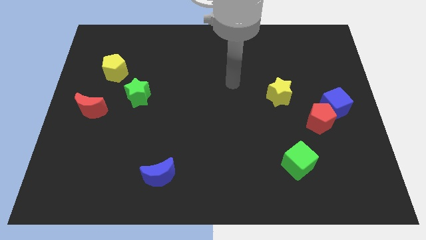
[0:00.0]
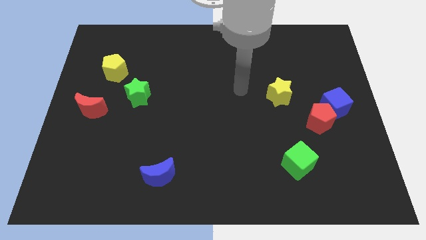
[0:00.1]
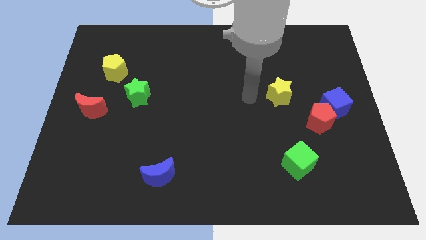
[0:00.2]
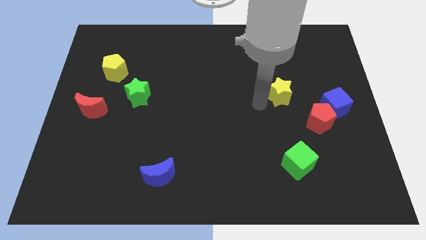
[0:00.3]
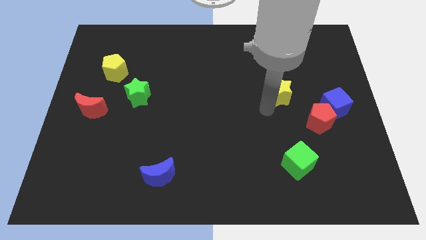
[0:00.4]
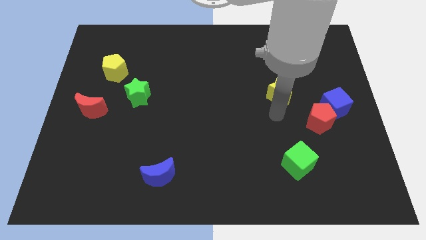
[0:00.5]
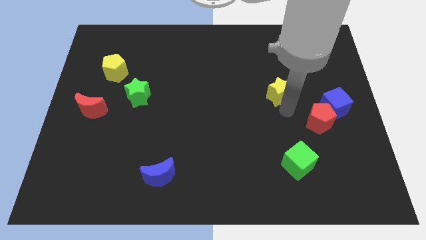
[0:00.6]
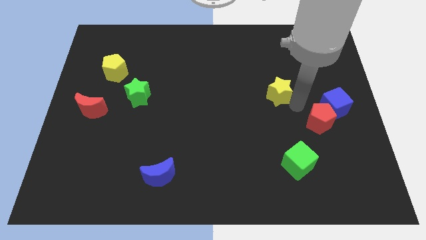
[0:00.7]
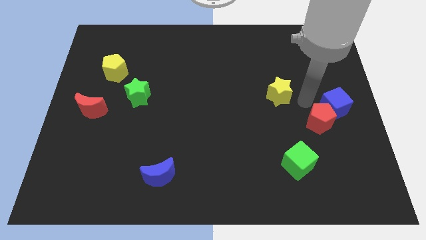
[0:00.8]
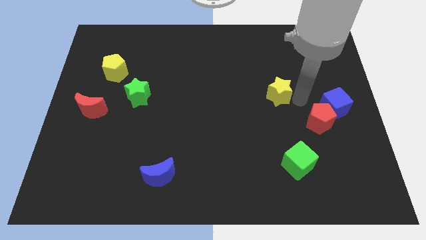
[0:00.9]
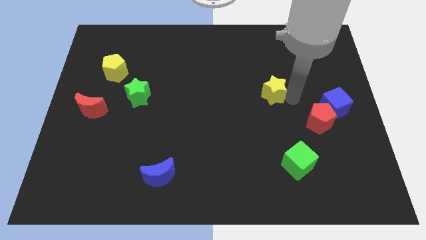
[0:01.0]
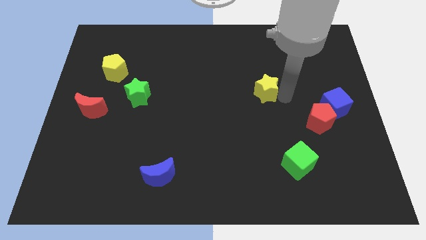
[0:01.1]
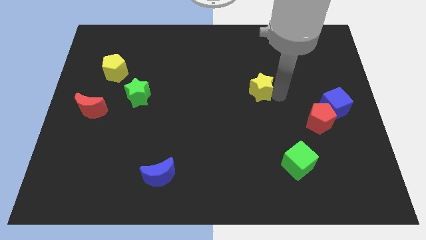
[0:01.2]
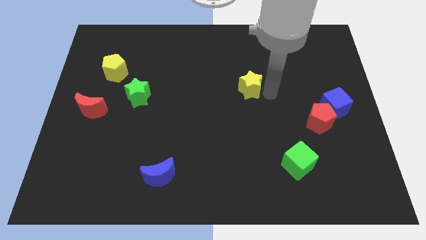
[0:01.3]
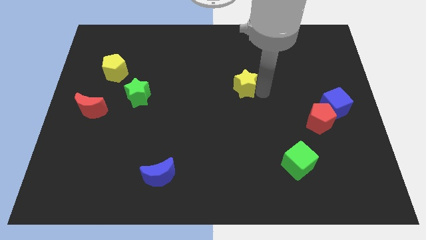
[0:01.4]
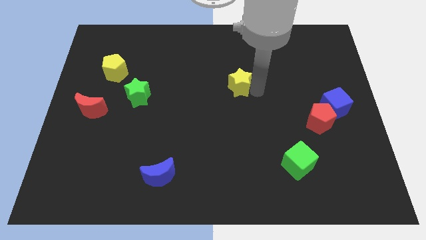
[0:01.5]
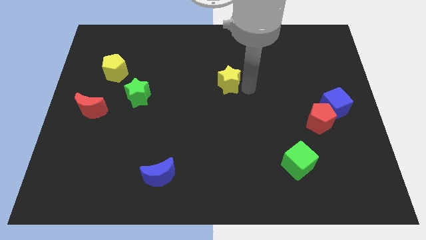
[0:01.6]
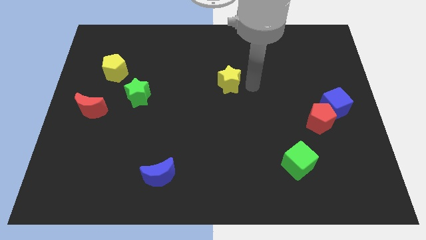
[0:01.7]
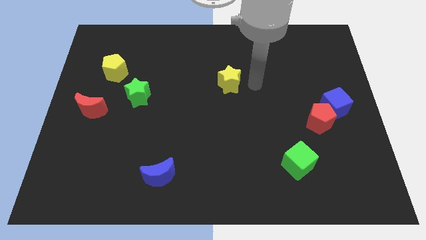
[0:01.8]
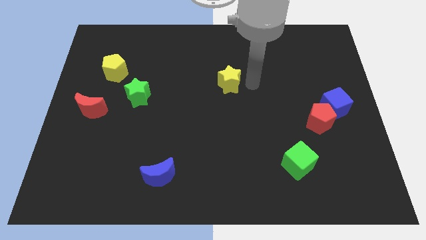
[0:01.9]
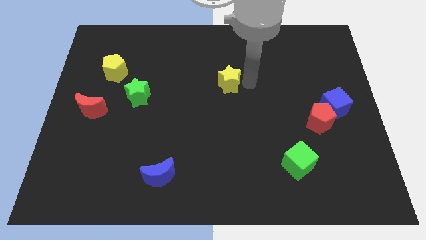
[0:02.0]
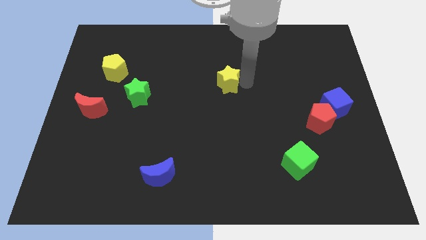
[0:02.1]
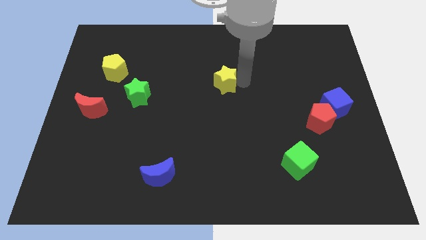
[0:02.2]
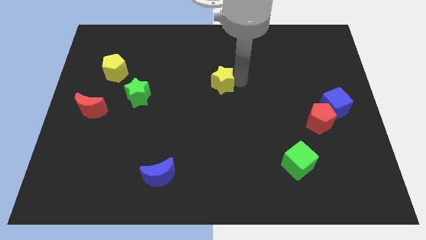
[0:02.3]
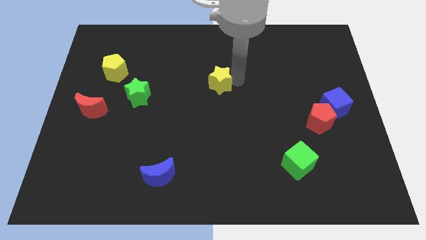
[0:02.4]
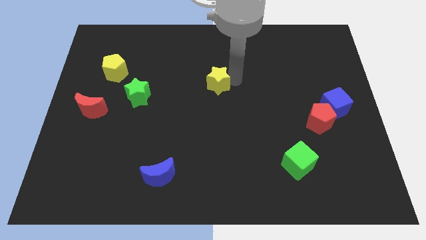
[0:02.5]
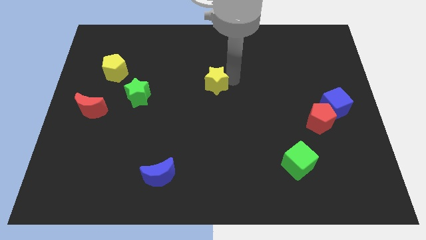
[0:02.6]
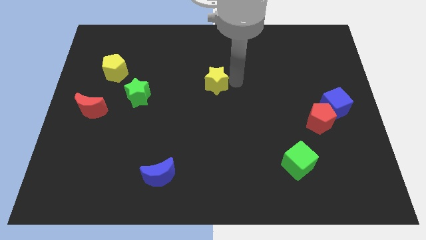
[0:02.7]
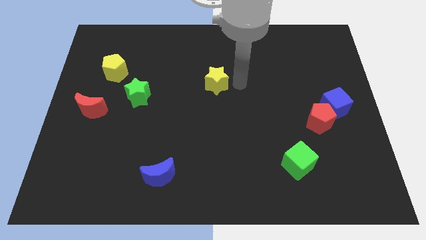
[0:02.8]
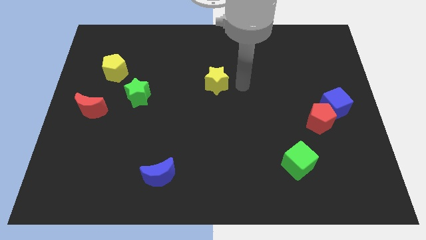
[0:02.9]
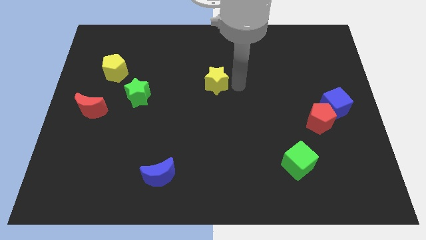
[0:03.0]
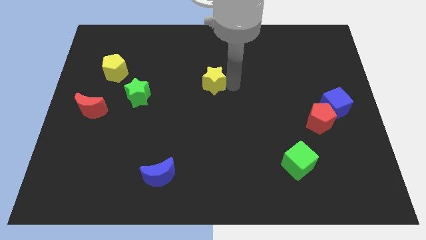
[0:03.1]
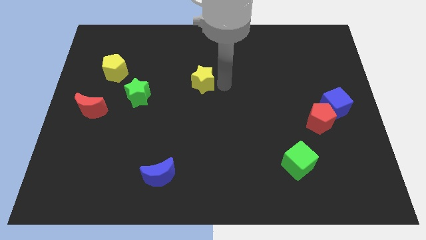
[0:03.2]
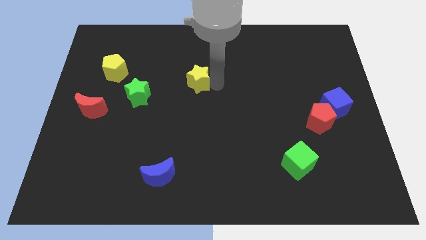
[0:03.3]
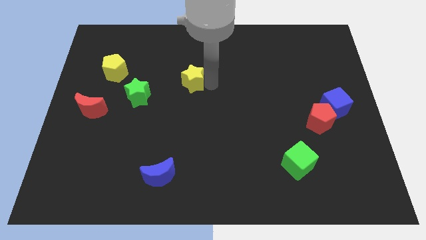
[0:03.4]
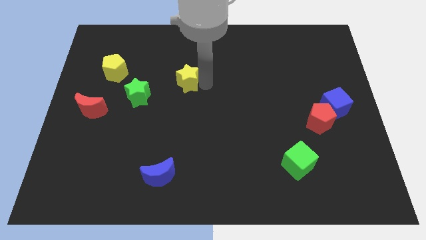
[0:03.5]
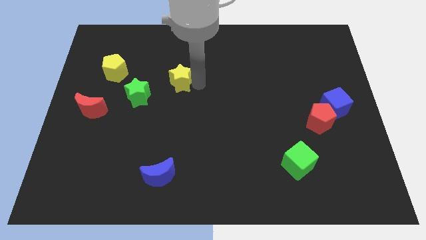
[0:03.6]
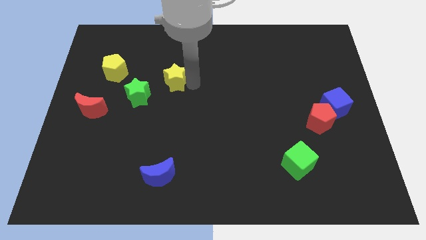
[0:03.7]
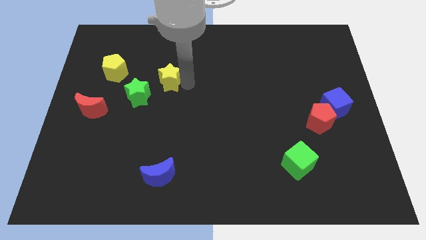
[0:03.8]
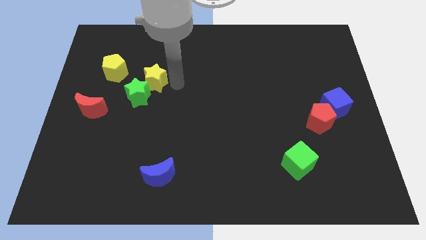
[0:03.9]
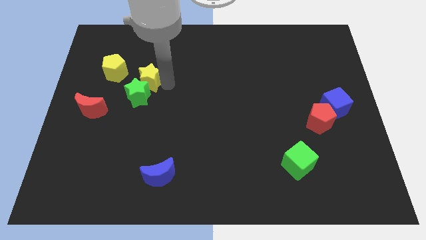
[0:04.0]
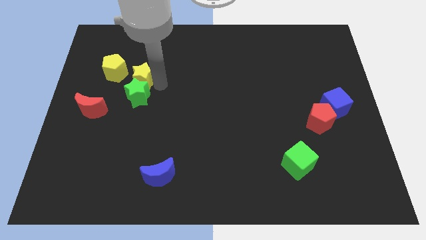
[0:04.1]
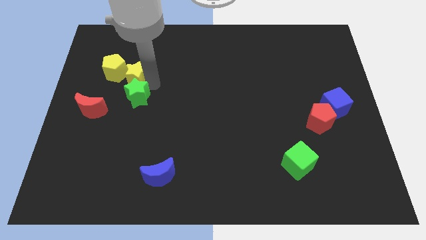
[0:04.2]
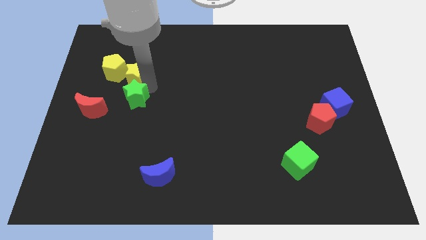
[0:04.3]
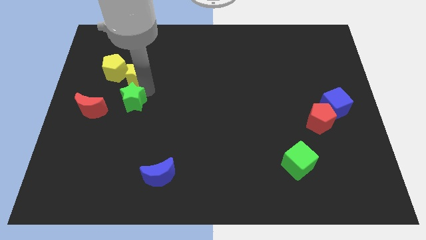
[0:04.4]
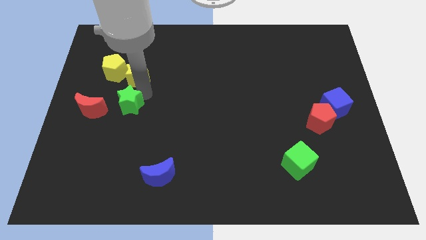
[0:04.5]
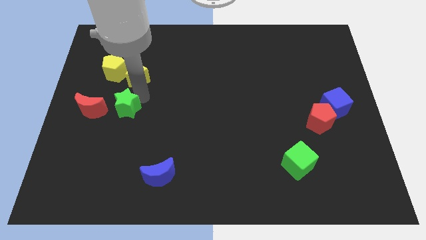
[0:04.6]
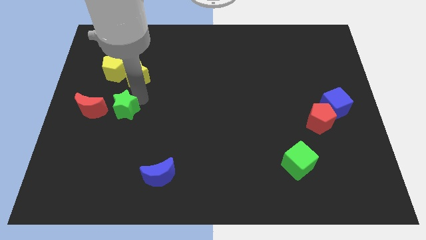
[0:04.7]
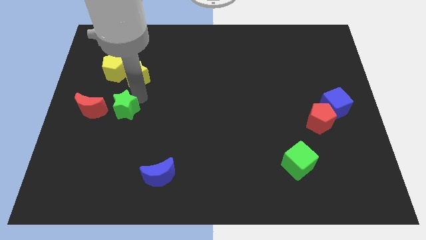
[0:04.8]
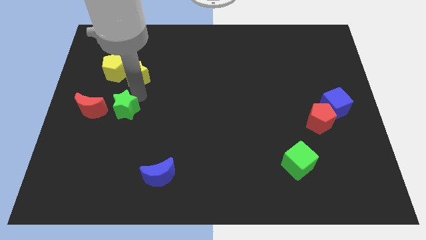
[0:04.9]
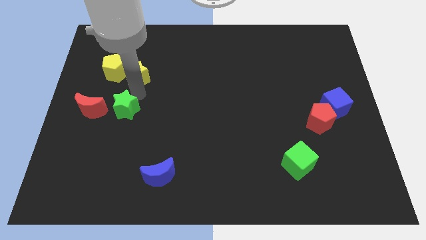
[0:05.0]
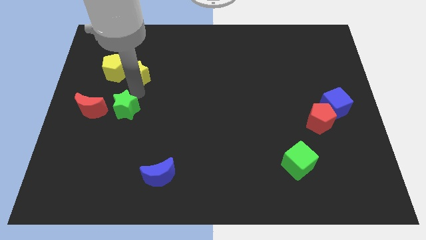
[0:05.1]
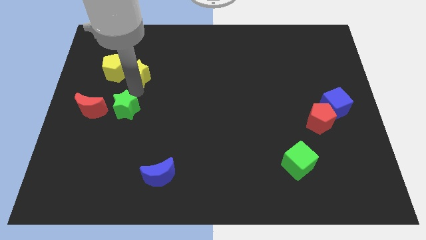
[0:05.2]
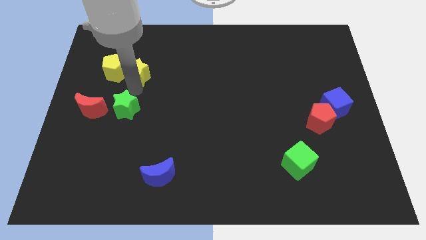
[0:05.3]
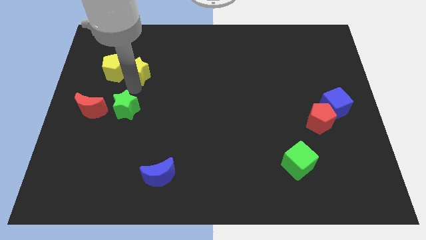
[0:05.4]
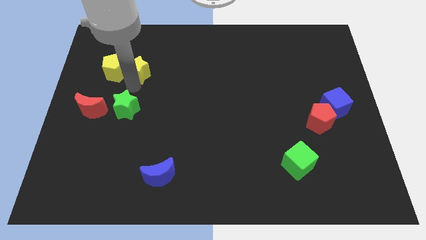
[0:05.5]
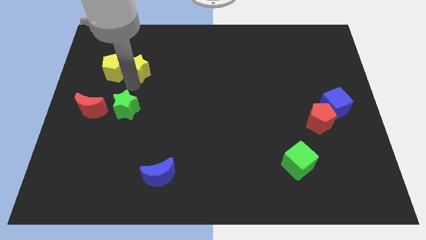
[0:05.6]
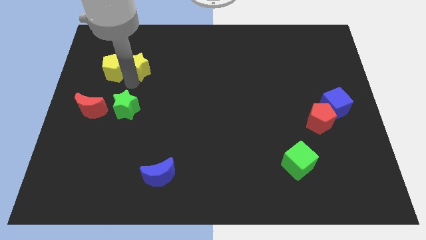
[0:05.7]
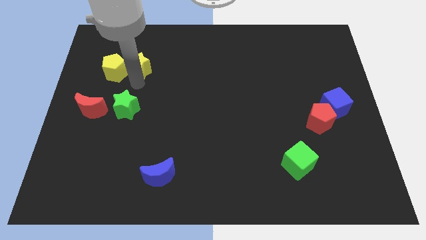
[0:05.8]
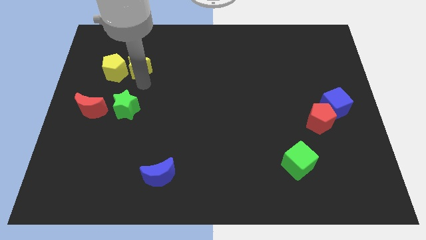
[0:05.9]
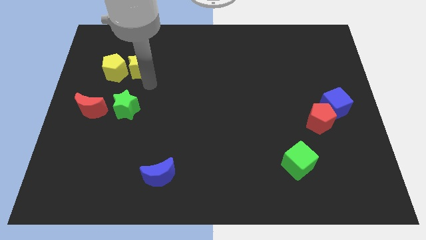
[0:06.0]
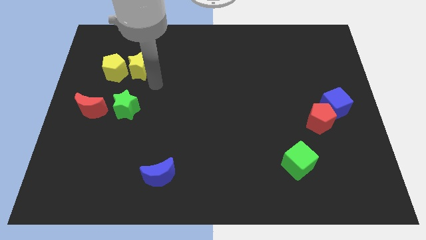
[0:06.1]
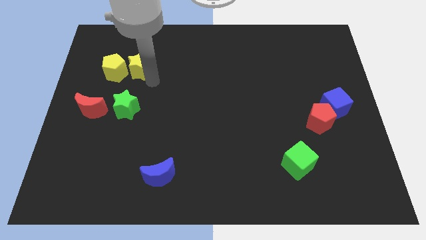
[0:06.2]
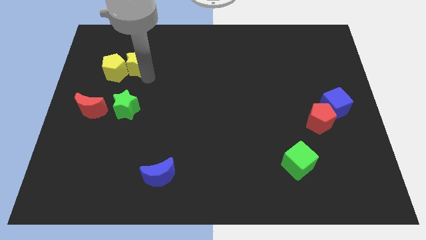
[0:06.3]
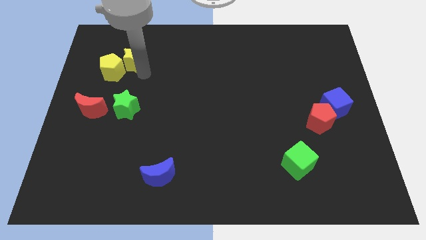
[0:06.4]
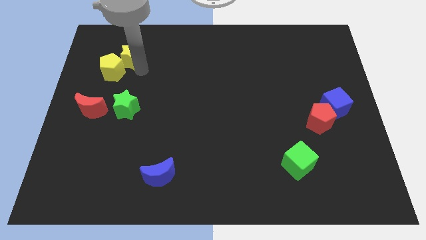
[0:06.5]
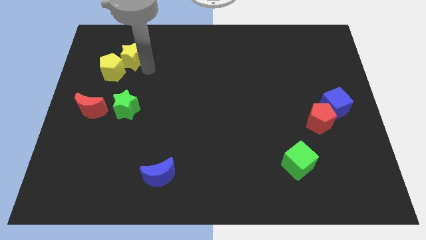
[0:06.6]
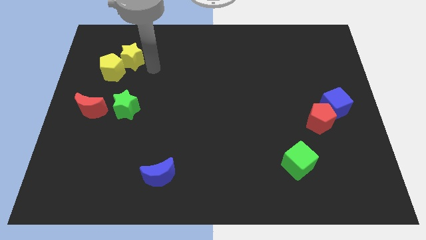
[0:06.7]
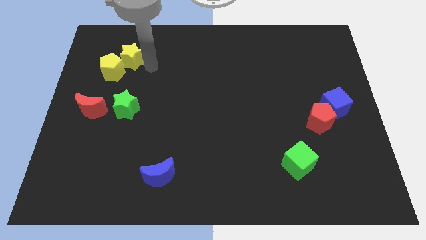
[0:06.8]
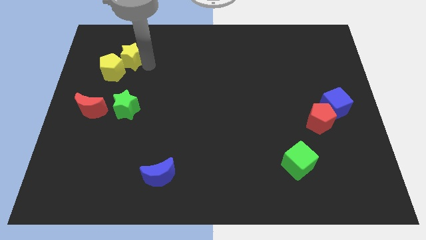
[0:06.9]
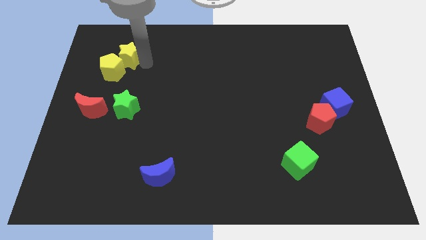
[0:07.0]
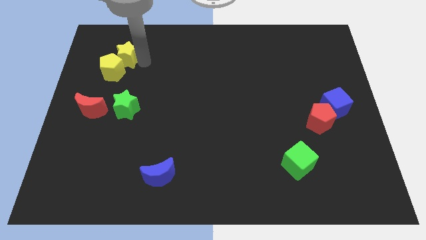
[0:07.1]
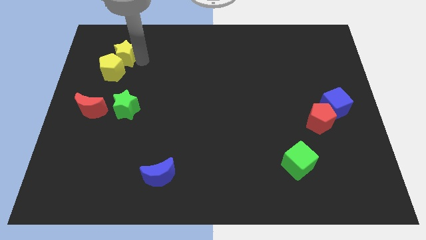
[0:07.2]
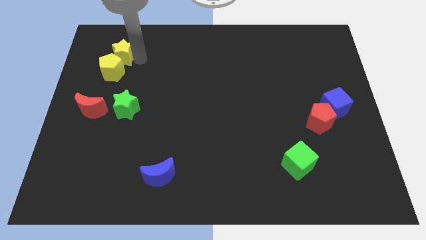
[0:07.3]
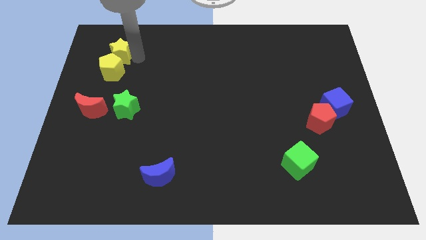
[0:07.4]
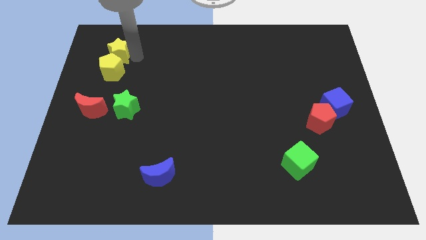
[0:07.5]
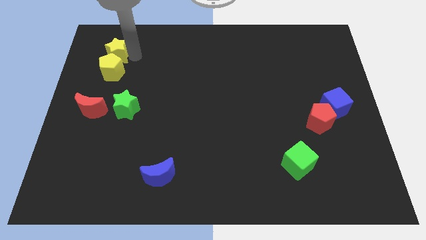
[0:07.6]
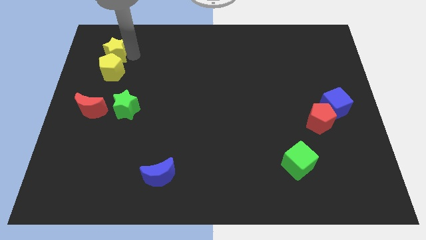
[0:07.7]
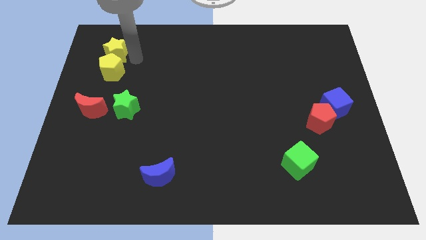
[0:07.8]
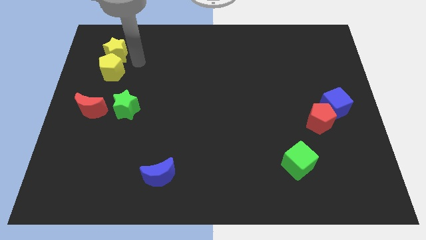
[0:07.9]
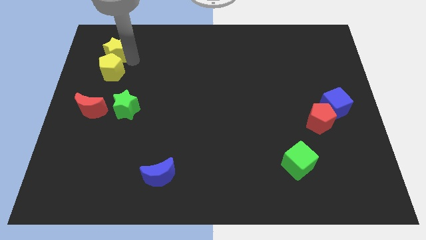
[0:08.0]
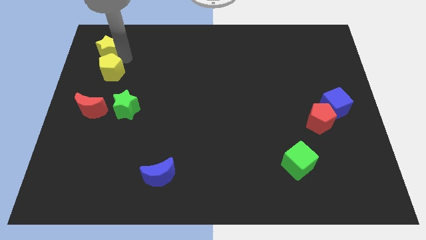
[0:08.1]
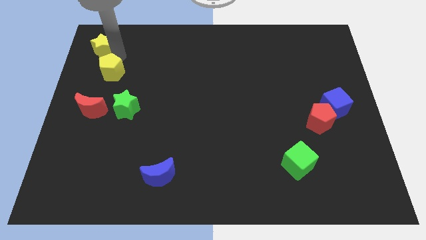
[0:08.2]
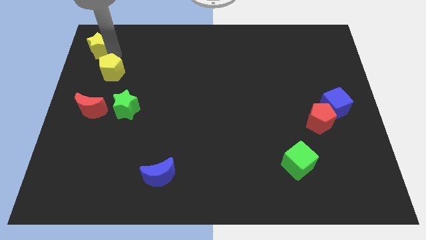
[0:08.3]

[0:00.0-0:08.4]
put the yellow star to the top left corner
